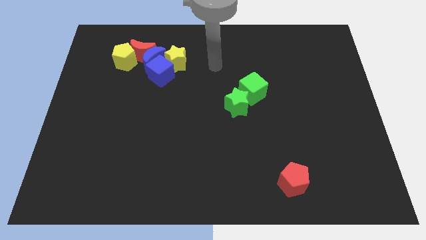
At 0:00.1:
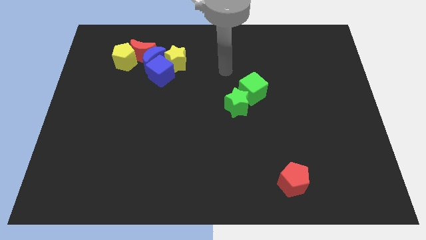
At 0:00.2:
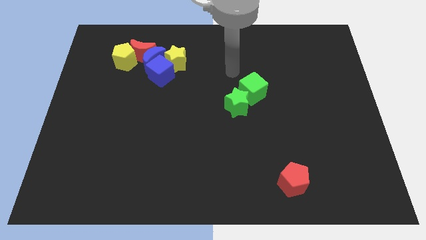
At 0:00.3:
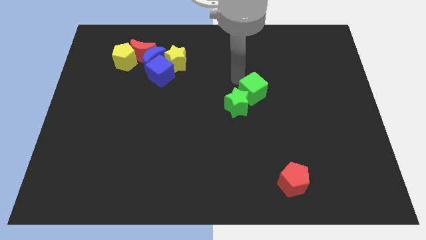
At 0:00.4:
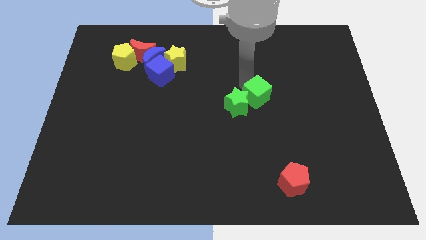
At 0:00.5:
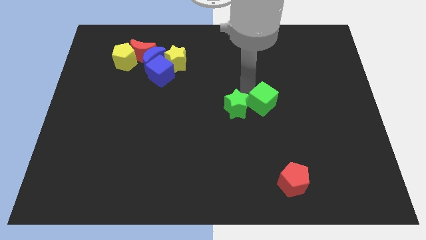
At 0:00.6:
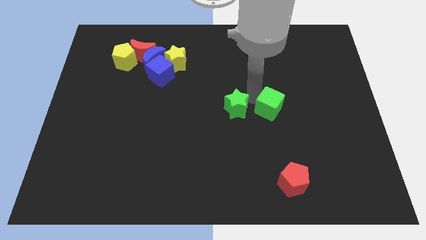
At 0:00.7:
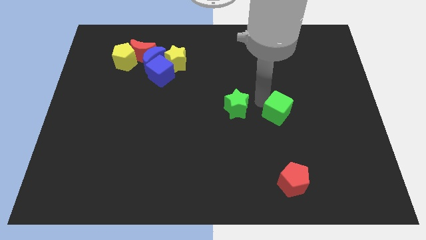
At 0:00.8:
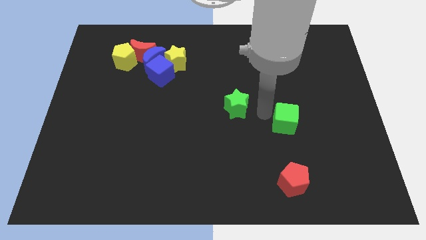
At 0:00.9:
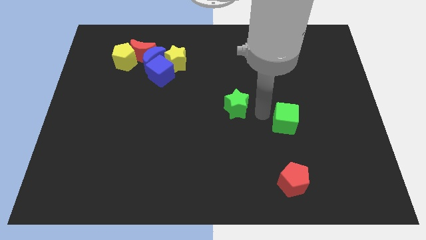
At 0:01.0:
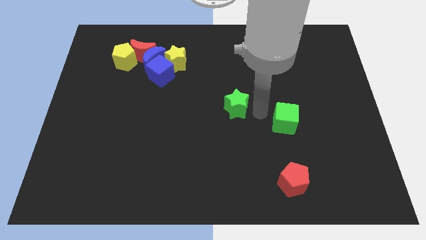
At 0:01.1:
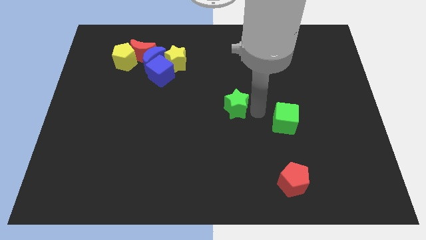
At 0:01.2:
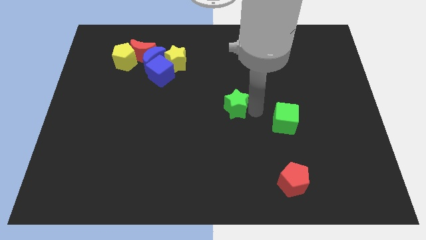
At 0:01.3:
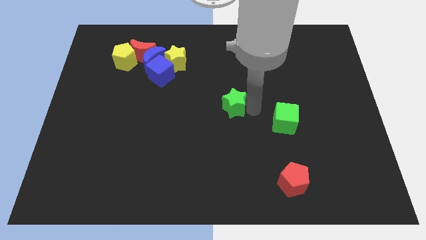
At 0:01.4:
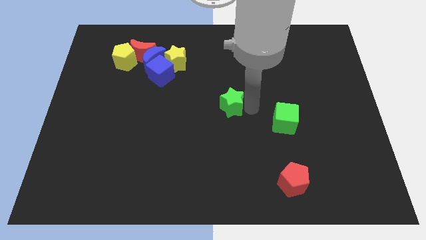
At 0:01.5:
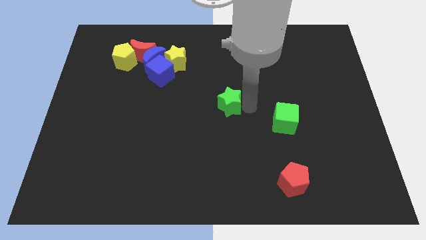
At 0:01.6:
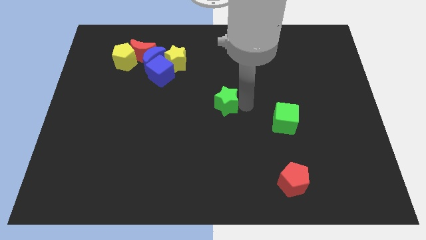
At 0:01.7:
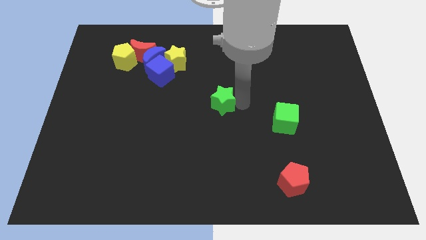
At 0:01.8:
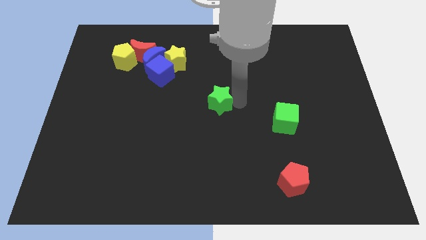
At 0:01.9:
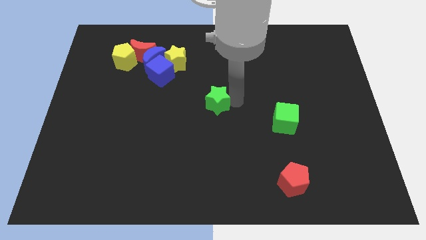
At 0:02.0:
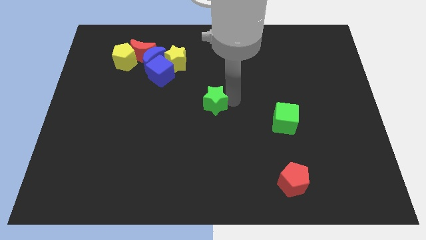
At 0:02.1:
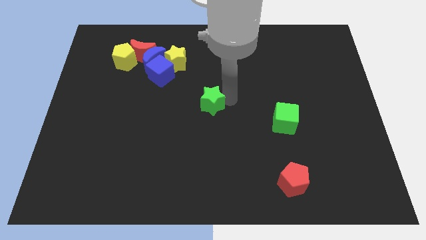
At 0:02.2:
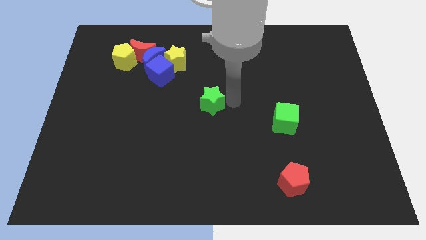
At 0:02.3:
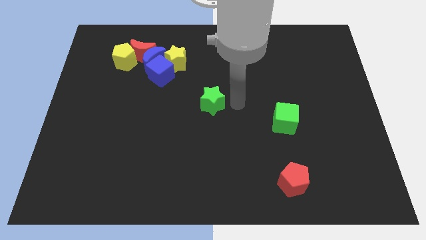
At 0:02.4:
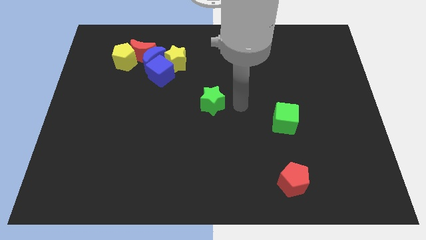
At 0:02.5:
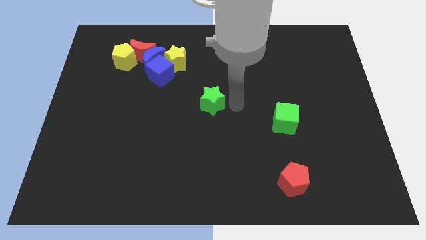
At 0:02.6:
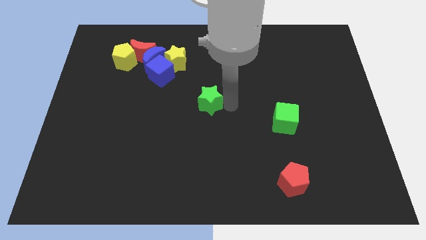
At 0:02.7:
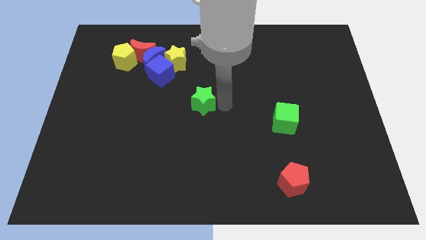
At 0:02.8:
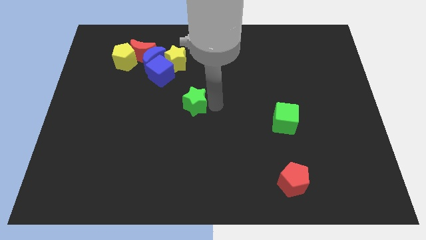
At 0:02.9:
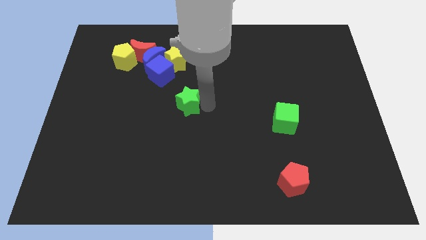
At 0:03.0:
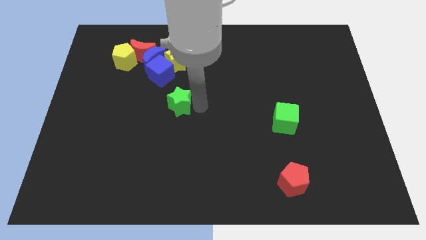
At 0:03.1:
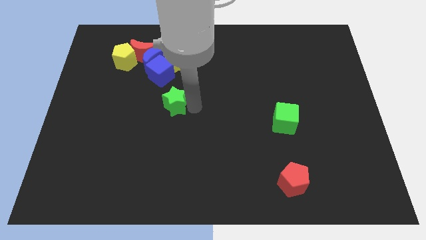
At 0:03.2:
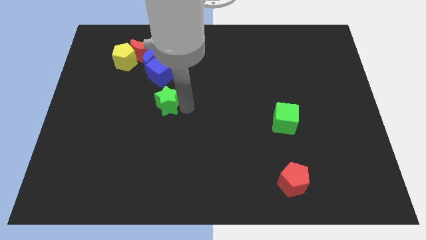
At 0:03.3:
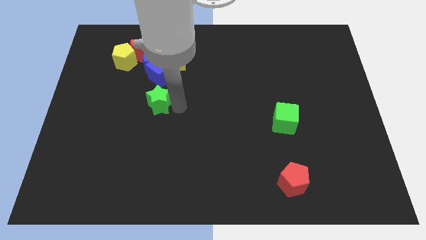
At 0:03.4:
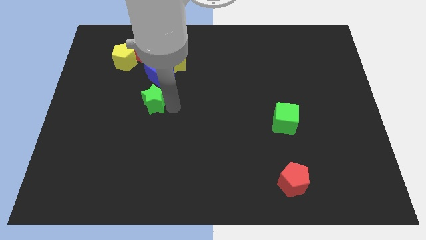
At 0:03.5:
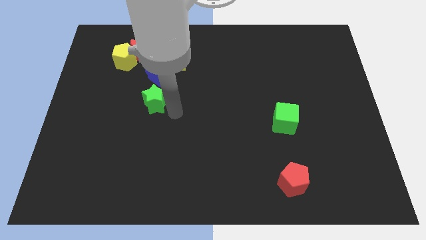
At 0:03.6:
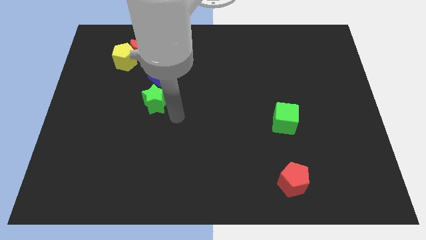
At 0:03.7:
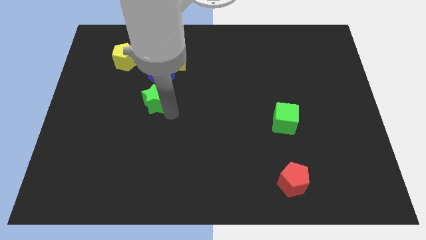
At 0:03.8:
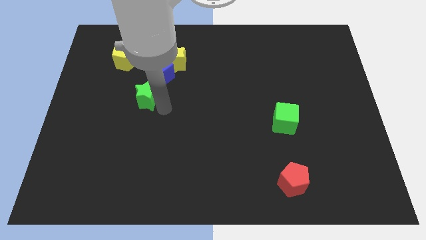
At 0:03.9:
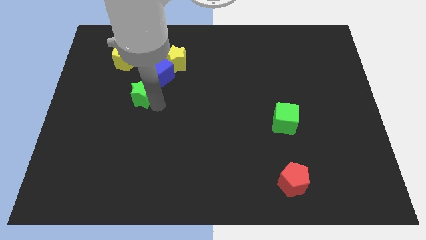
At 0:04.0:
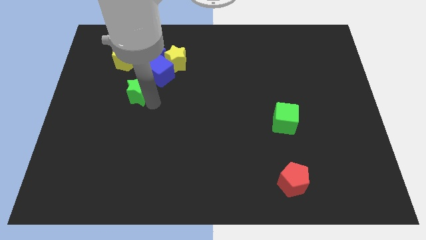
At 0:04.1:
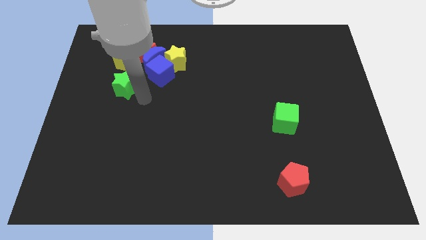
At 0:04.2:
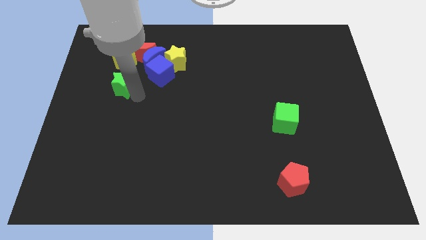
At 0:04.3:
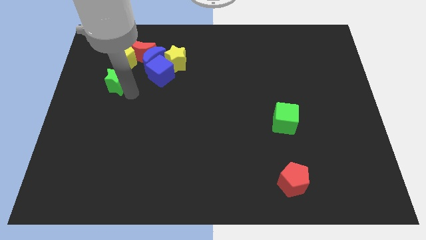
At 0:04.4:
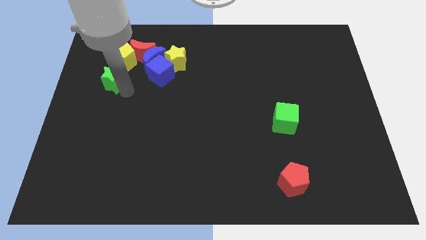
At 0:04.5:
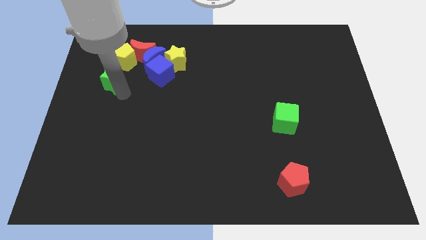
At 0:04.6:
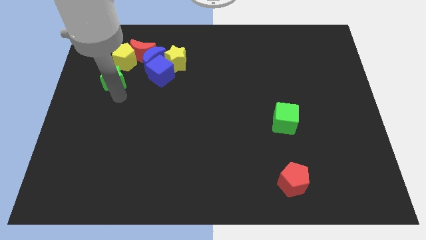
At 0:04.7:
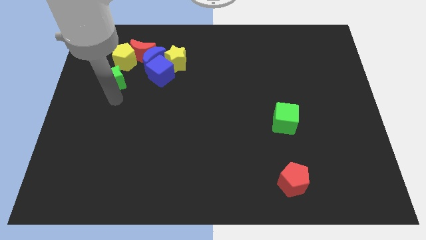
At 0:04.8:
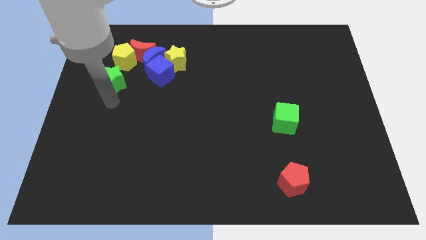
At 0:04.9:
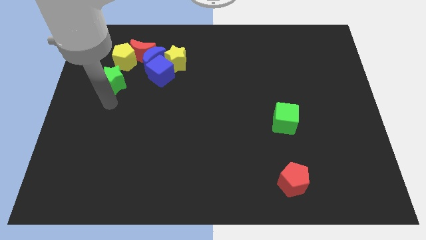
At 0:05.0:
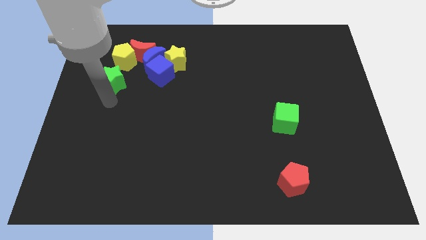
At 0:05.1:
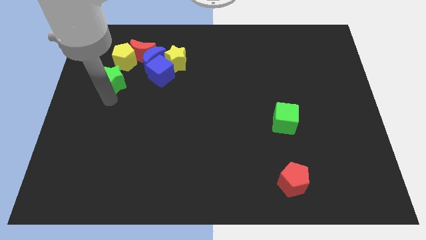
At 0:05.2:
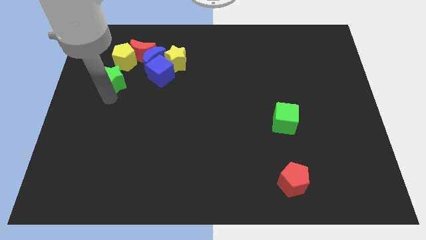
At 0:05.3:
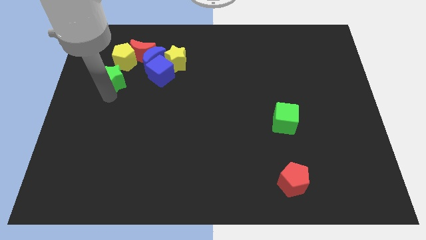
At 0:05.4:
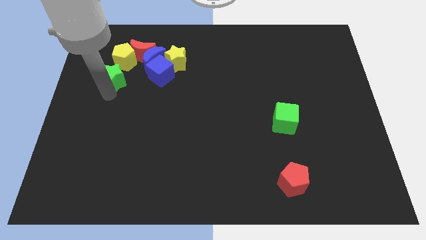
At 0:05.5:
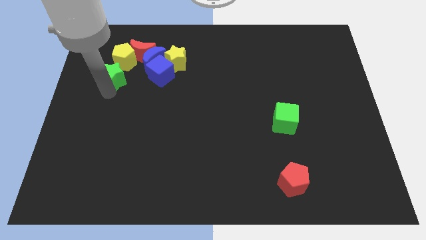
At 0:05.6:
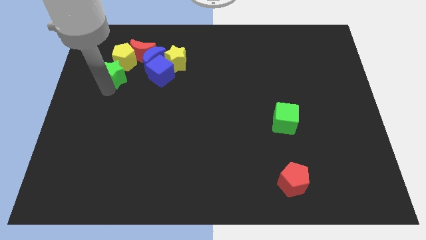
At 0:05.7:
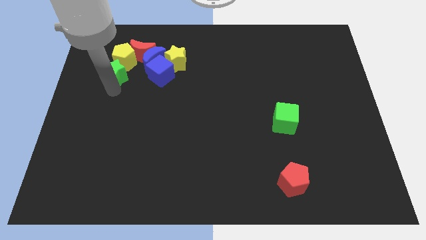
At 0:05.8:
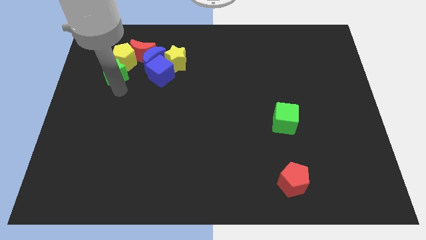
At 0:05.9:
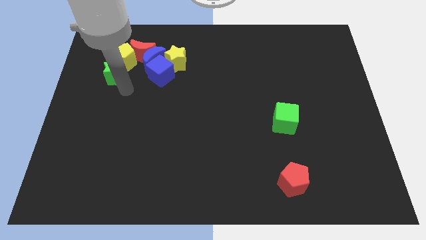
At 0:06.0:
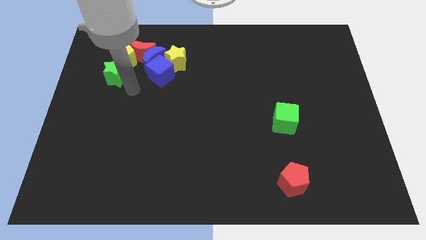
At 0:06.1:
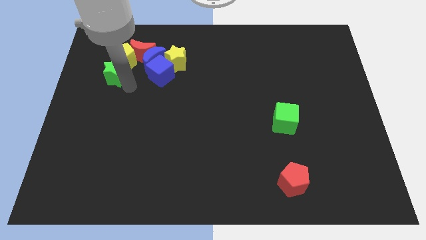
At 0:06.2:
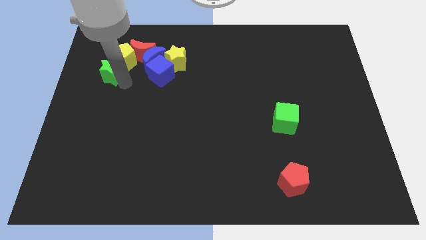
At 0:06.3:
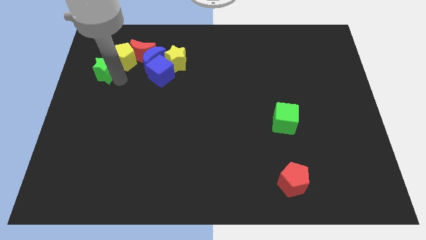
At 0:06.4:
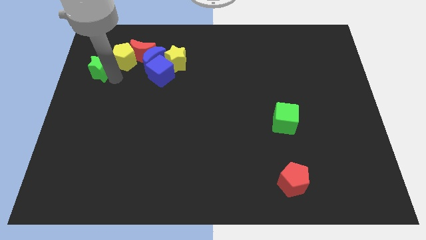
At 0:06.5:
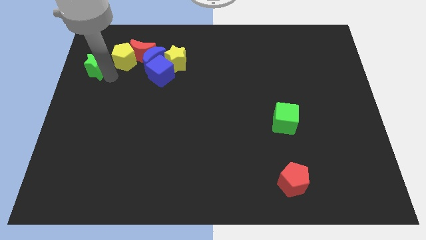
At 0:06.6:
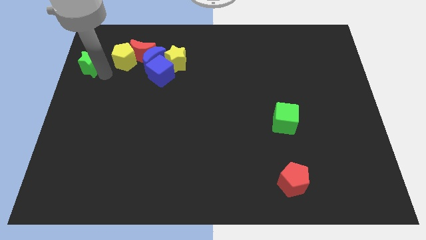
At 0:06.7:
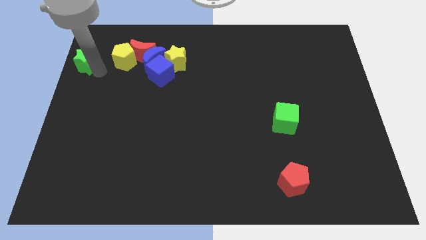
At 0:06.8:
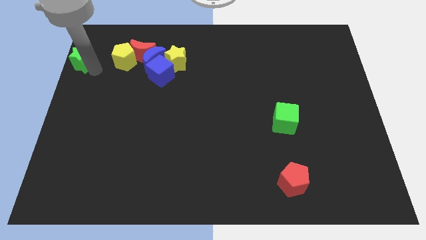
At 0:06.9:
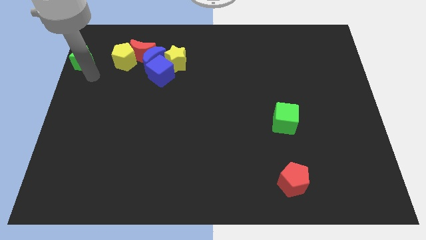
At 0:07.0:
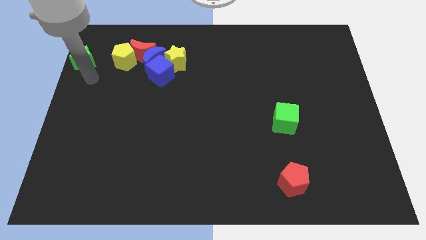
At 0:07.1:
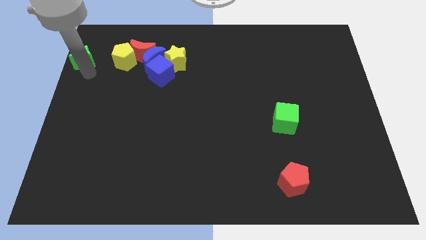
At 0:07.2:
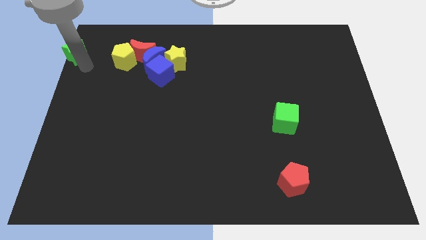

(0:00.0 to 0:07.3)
put the green star to the top left corner

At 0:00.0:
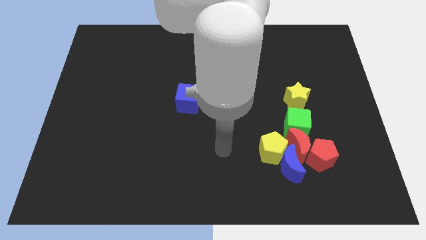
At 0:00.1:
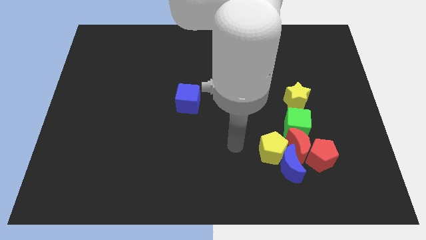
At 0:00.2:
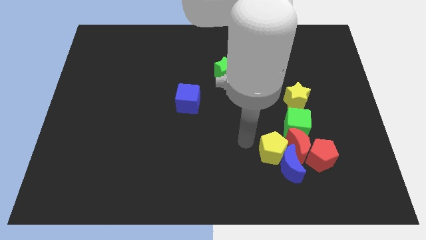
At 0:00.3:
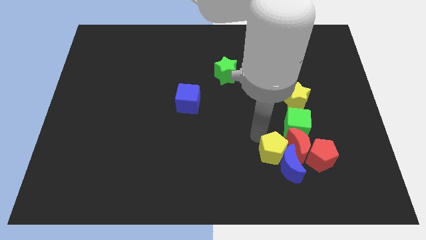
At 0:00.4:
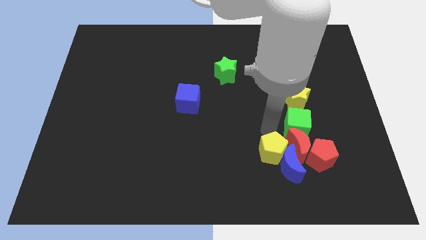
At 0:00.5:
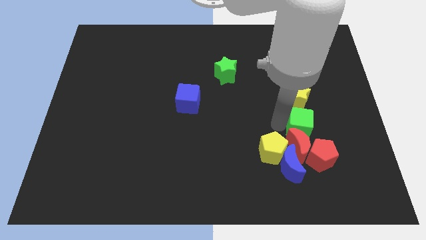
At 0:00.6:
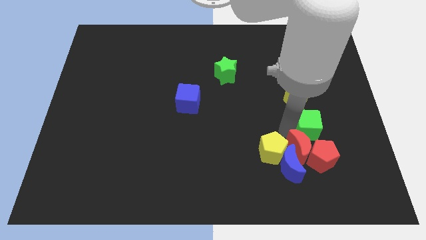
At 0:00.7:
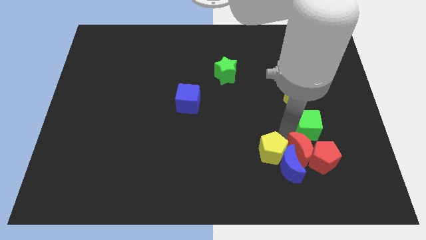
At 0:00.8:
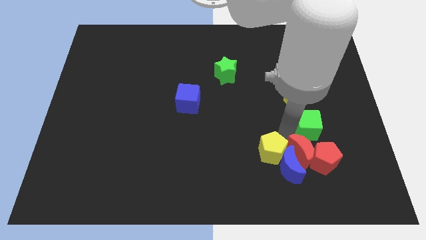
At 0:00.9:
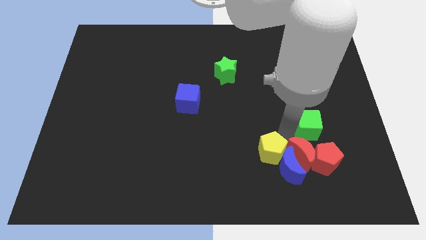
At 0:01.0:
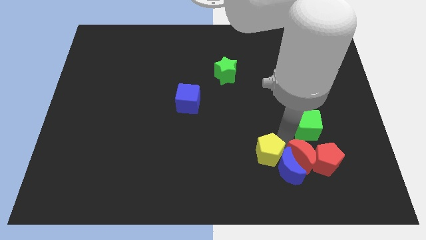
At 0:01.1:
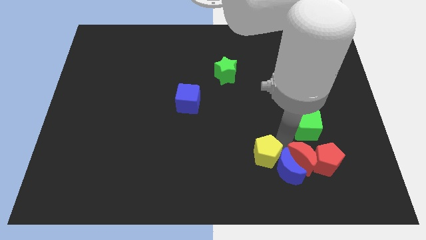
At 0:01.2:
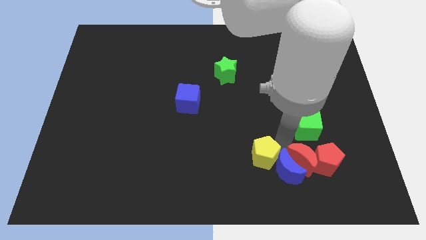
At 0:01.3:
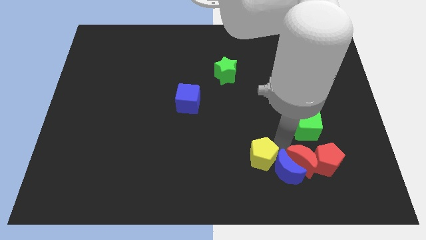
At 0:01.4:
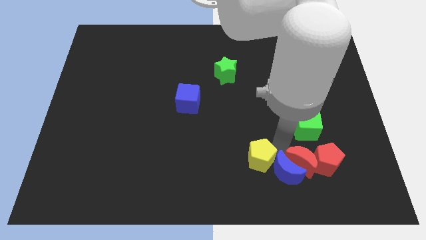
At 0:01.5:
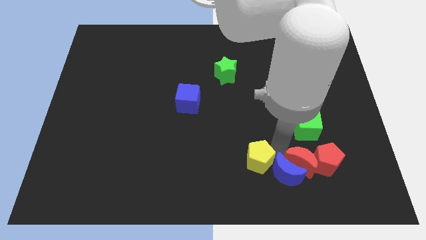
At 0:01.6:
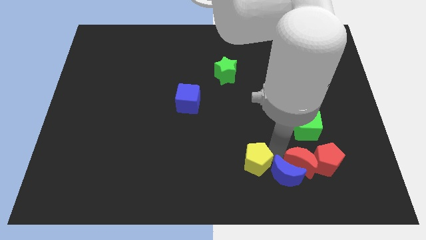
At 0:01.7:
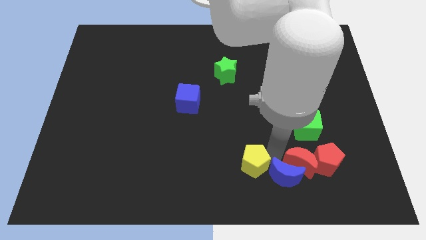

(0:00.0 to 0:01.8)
put the yellow pentagon to the bottom
